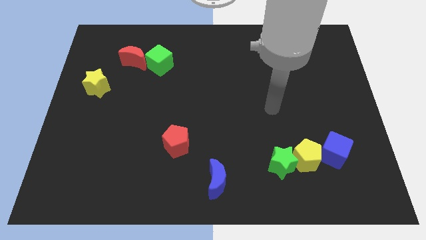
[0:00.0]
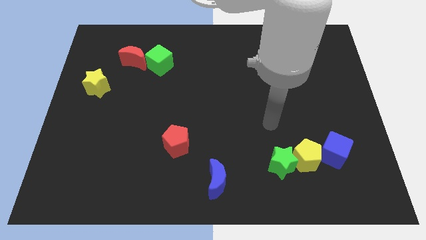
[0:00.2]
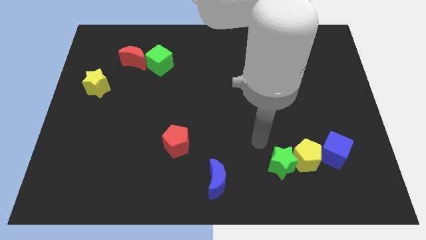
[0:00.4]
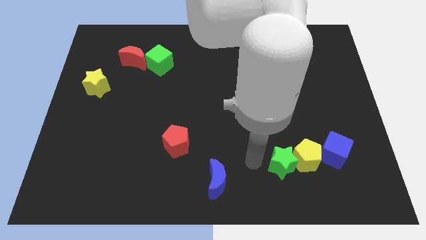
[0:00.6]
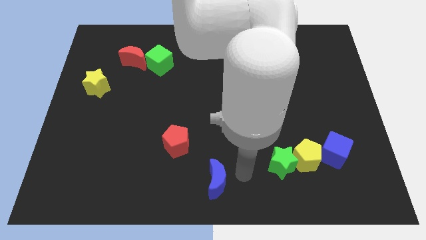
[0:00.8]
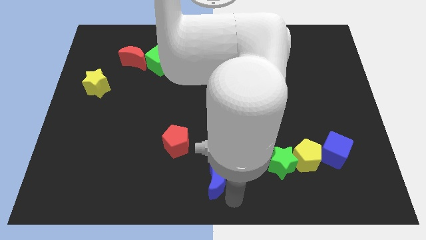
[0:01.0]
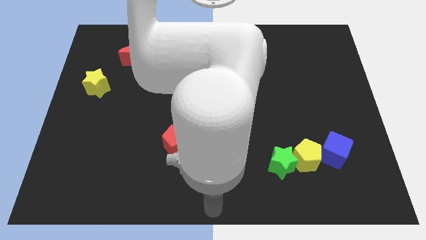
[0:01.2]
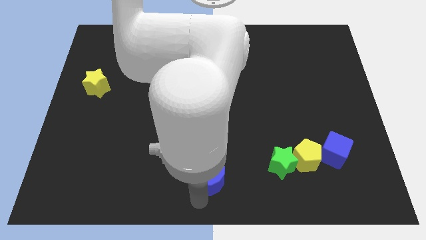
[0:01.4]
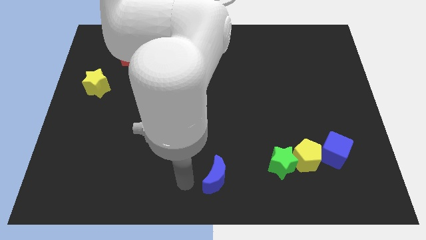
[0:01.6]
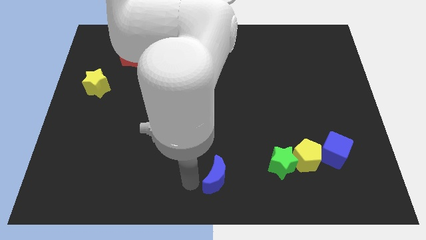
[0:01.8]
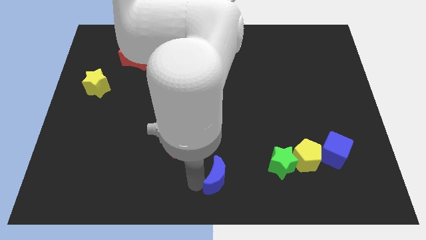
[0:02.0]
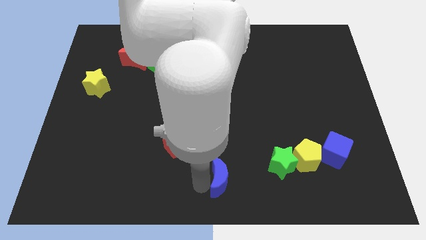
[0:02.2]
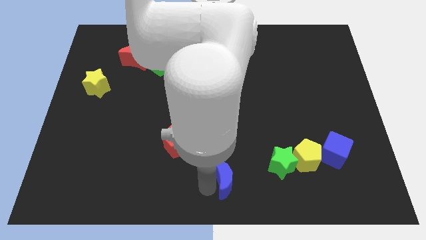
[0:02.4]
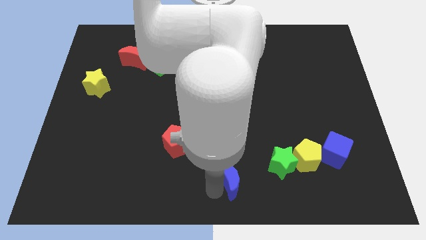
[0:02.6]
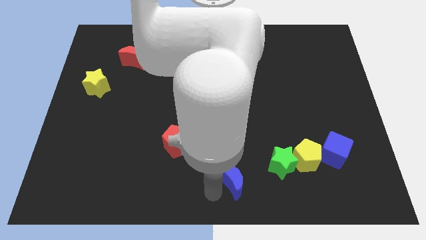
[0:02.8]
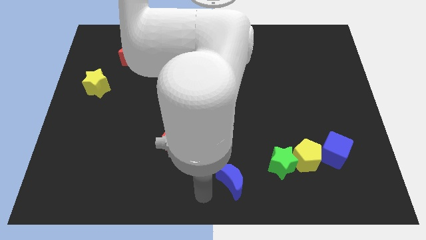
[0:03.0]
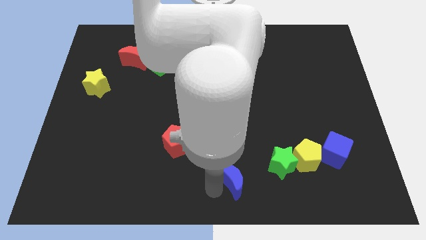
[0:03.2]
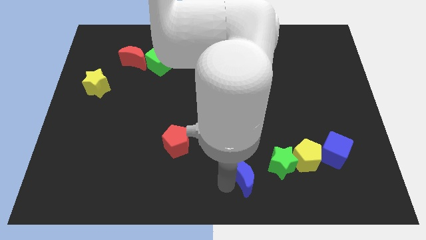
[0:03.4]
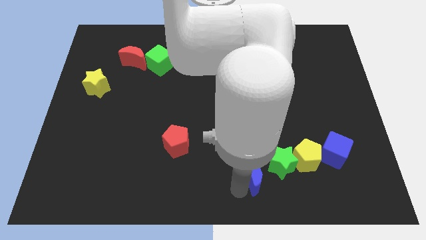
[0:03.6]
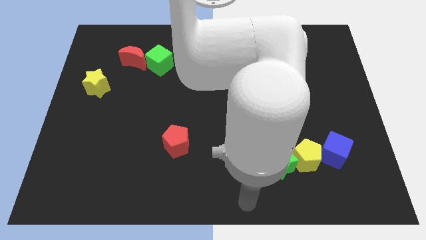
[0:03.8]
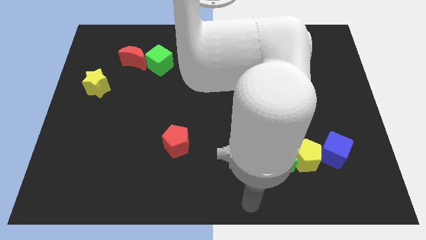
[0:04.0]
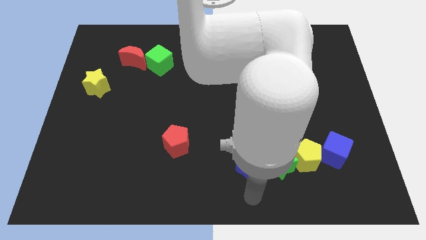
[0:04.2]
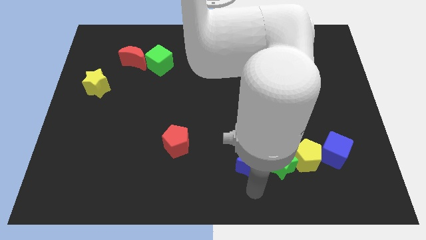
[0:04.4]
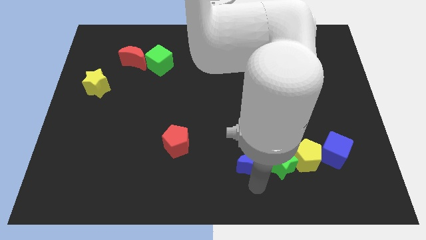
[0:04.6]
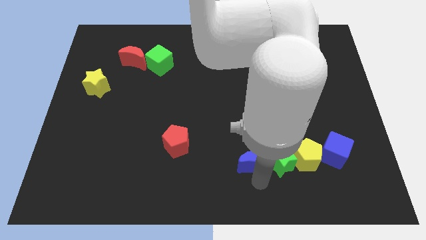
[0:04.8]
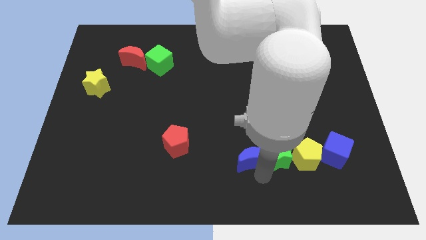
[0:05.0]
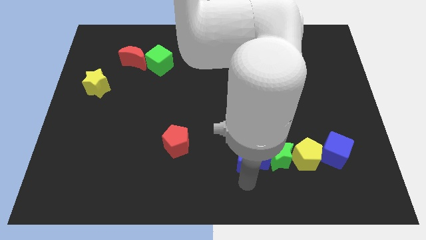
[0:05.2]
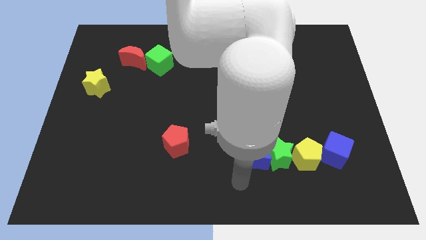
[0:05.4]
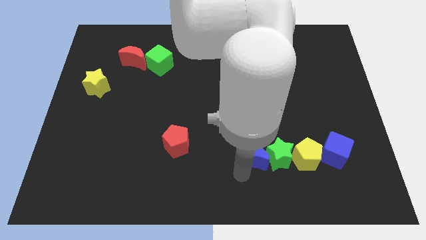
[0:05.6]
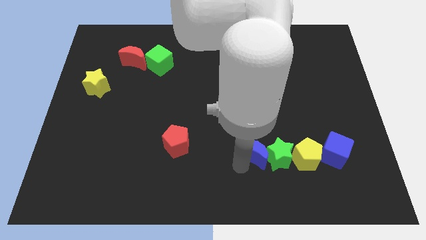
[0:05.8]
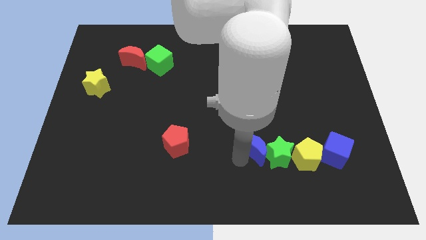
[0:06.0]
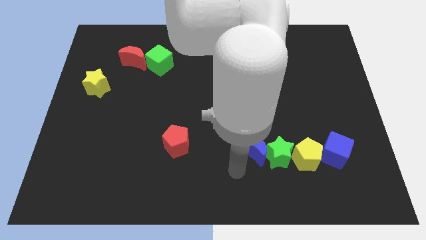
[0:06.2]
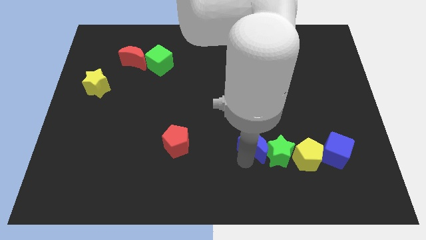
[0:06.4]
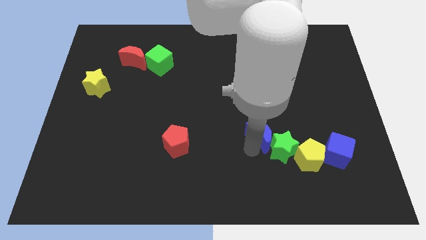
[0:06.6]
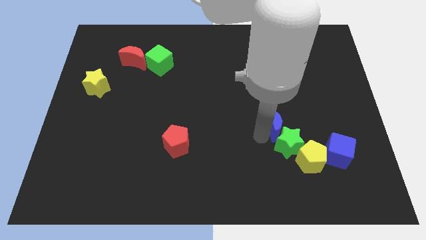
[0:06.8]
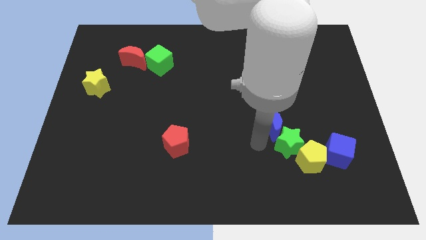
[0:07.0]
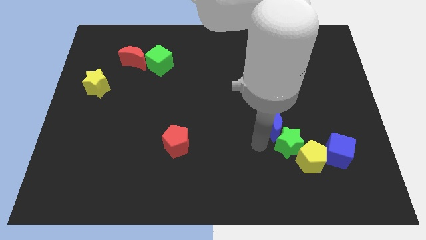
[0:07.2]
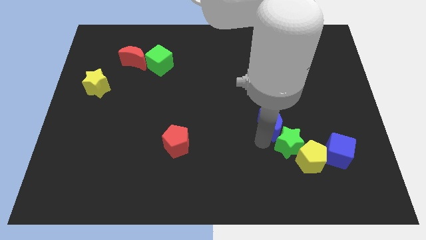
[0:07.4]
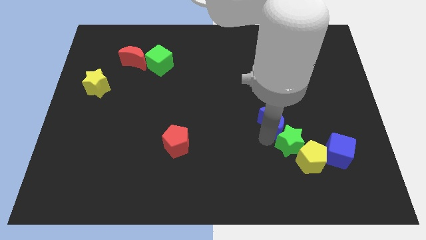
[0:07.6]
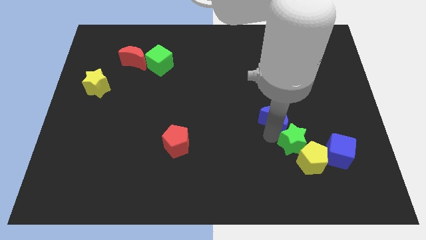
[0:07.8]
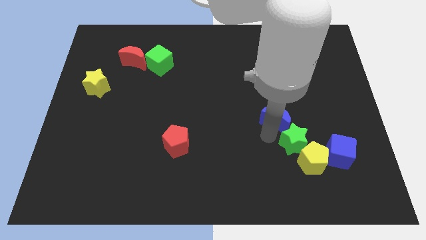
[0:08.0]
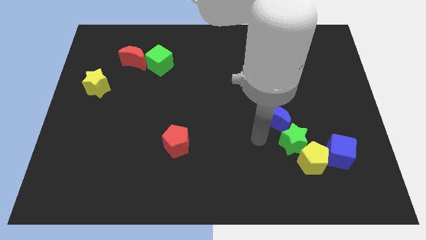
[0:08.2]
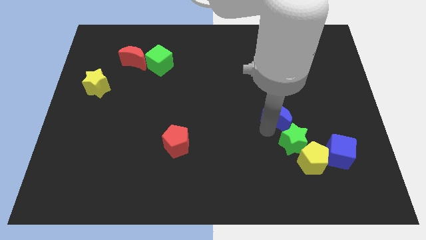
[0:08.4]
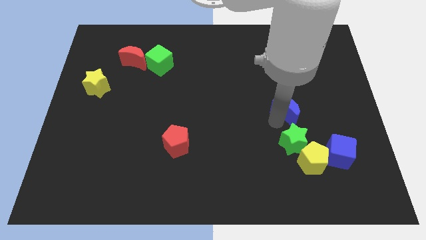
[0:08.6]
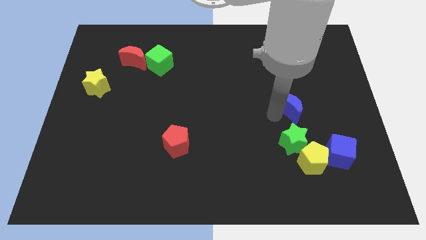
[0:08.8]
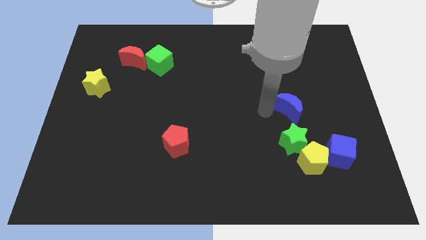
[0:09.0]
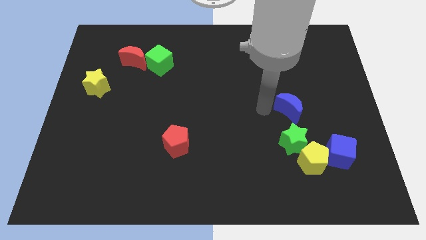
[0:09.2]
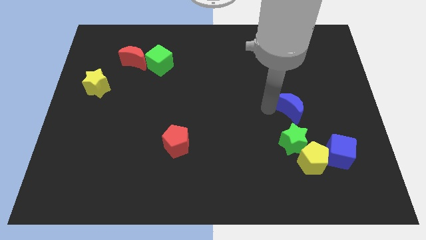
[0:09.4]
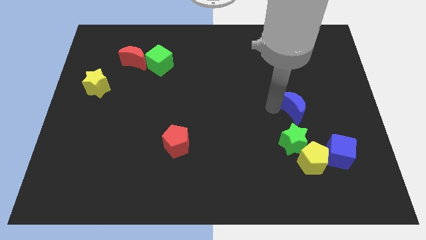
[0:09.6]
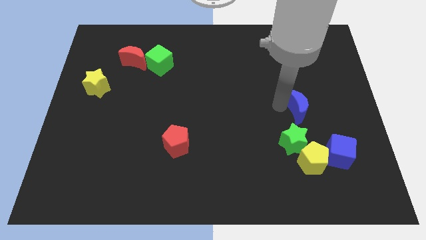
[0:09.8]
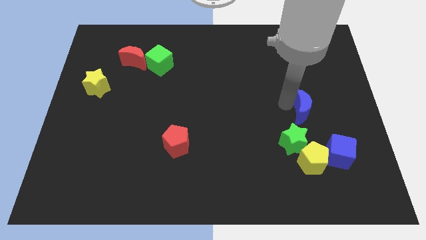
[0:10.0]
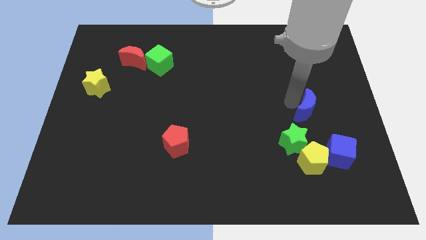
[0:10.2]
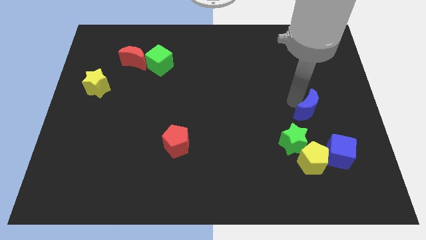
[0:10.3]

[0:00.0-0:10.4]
move the blue moon to the top of the blue cube

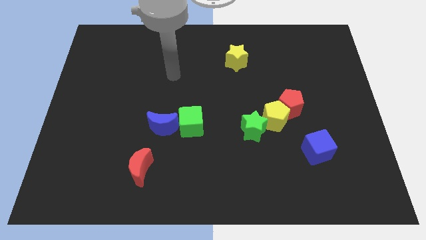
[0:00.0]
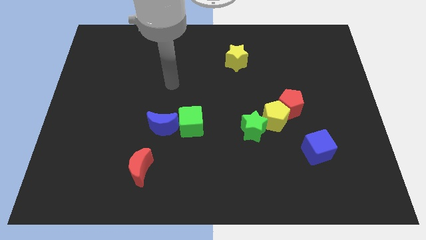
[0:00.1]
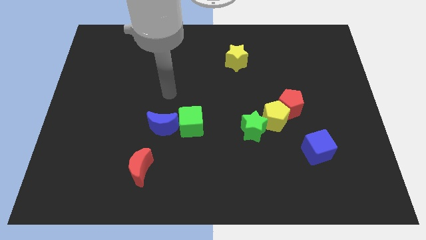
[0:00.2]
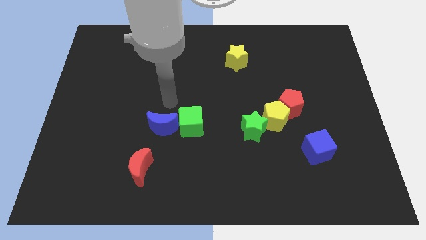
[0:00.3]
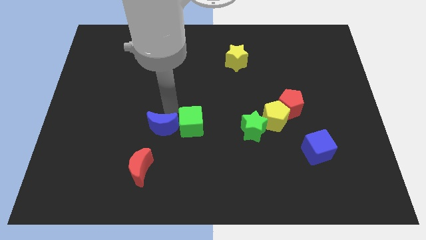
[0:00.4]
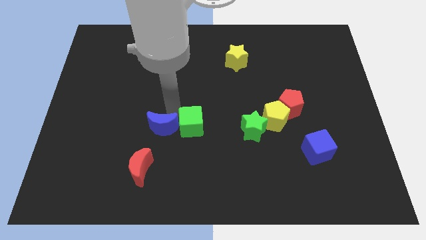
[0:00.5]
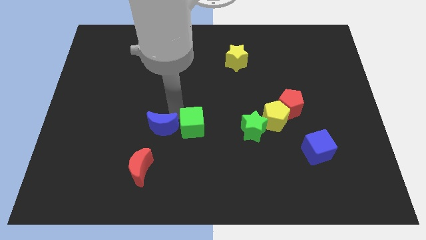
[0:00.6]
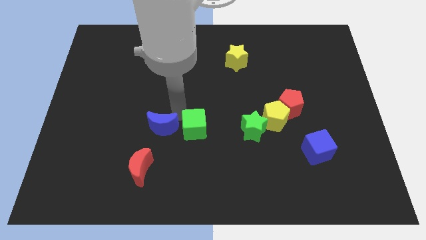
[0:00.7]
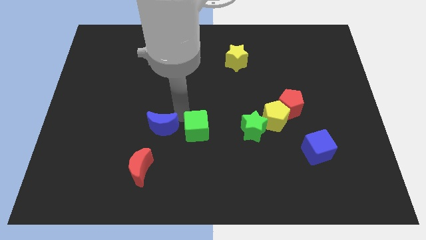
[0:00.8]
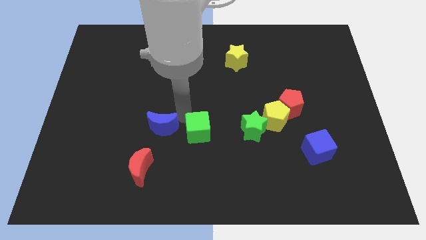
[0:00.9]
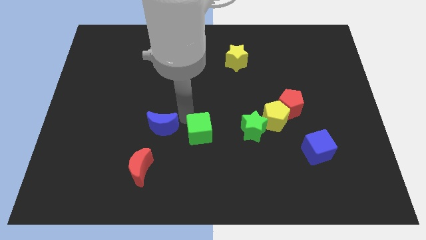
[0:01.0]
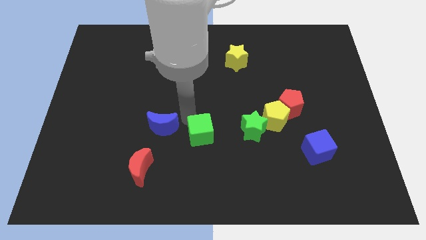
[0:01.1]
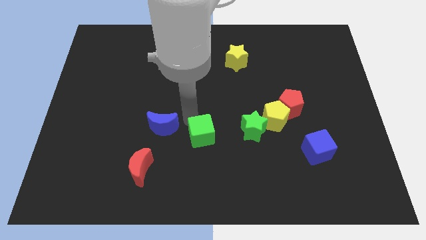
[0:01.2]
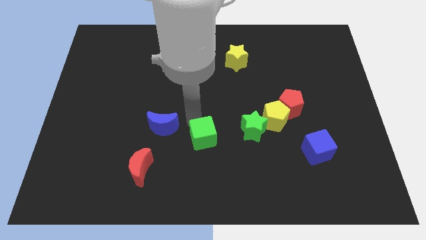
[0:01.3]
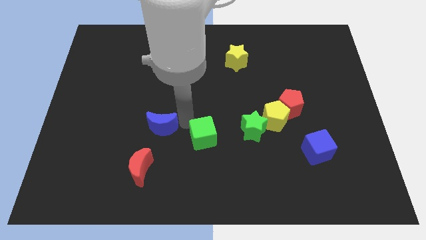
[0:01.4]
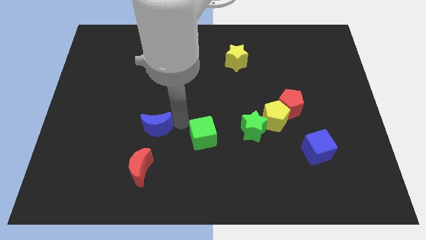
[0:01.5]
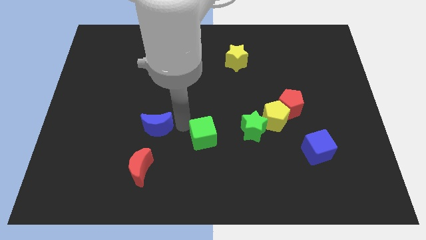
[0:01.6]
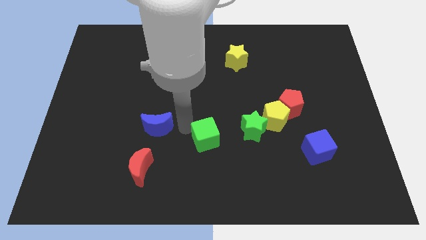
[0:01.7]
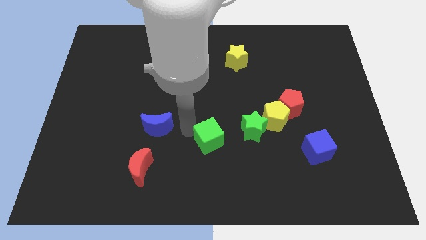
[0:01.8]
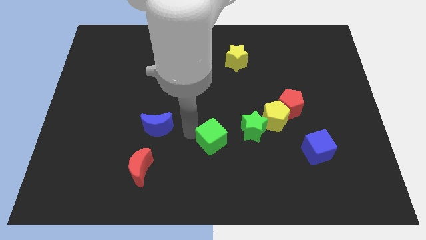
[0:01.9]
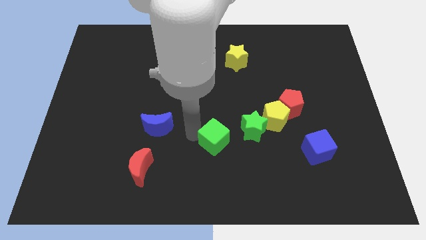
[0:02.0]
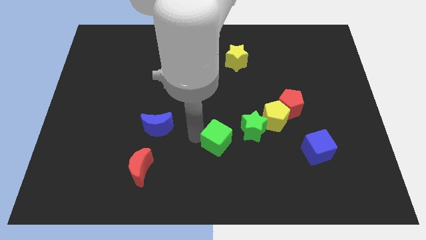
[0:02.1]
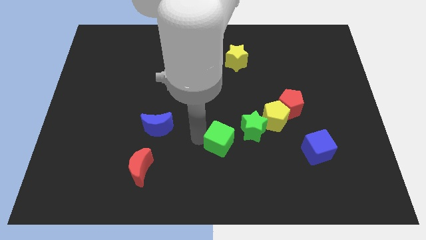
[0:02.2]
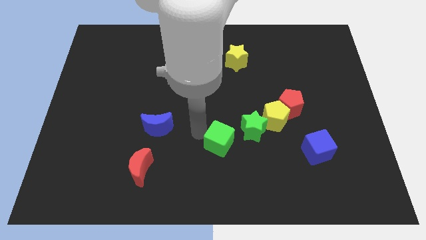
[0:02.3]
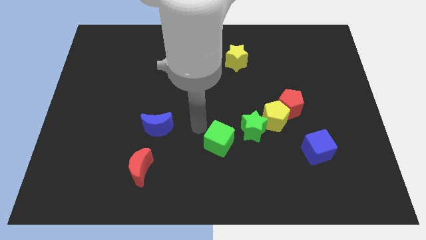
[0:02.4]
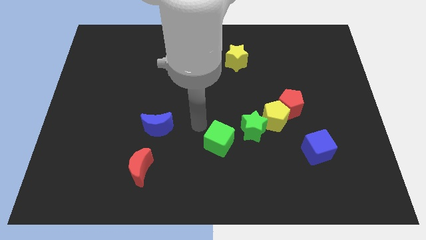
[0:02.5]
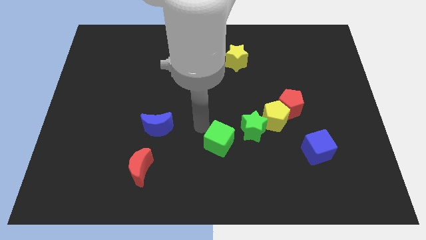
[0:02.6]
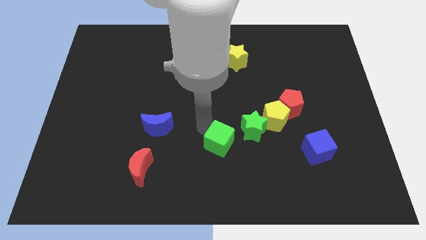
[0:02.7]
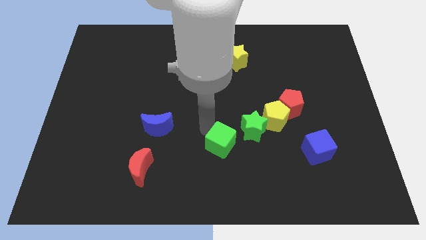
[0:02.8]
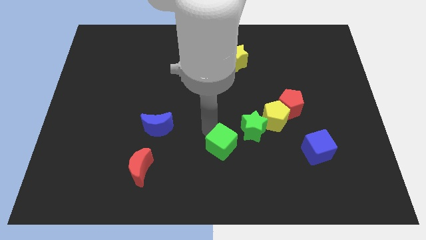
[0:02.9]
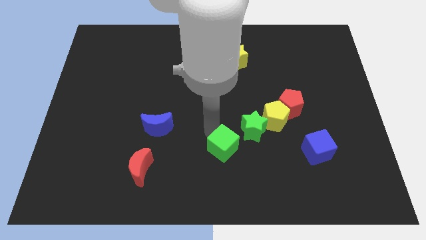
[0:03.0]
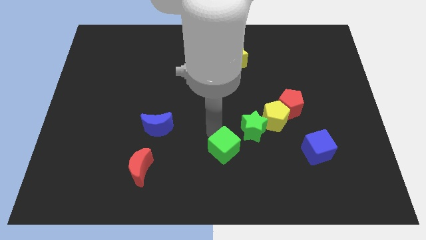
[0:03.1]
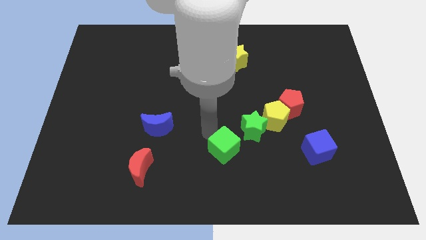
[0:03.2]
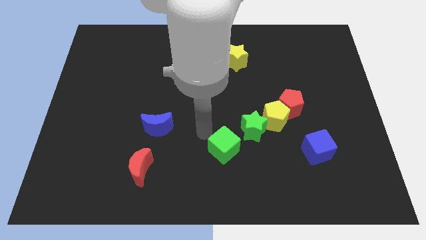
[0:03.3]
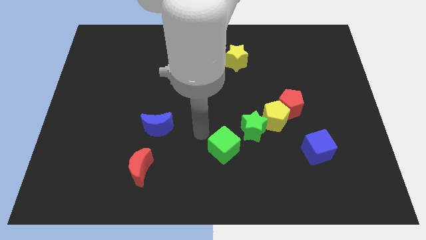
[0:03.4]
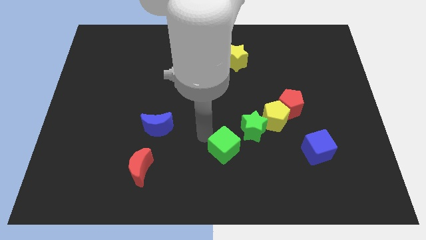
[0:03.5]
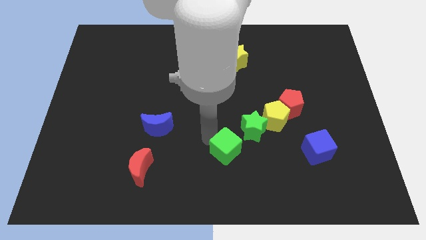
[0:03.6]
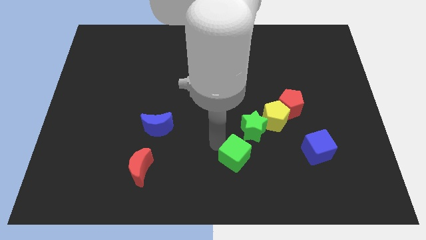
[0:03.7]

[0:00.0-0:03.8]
push the green cube to the bottom side of the green star
